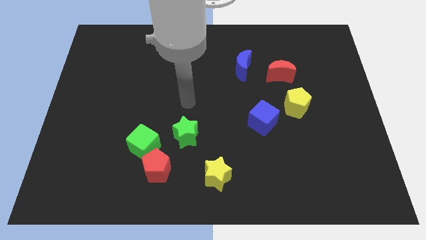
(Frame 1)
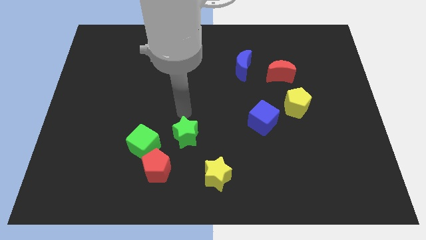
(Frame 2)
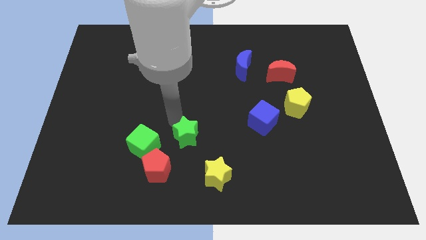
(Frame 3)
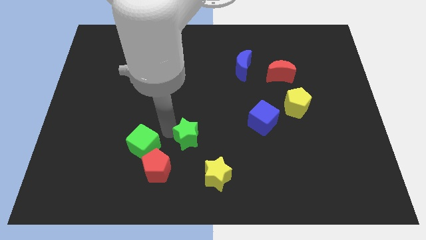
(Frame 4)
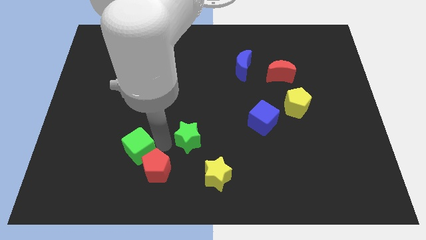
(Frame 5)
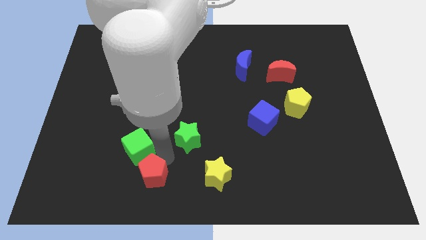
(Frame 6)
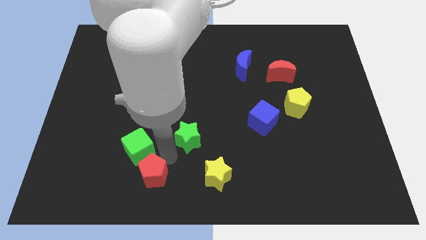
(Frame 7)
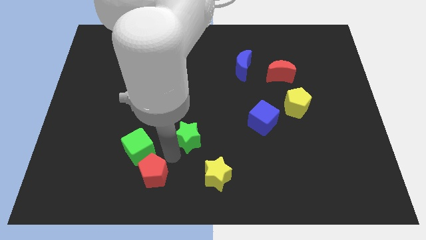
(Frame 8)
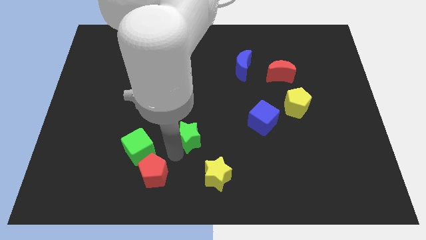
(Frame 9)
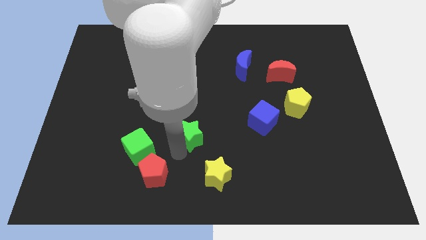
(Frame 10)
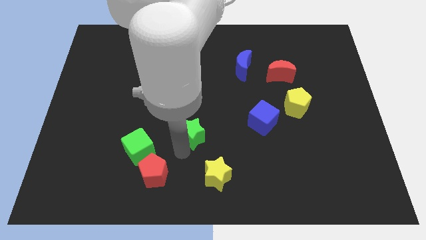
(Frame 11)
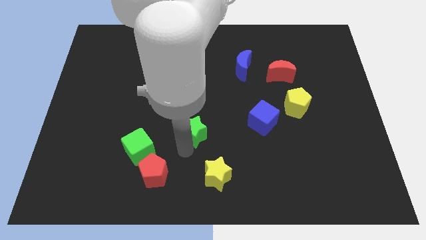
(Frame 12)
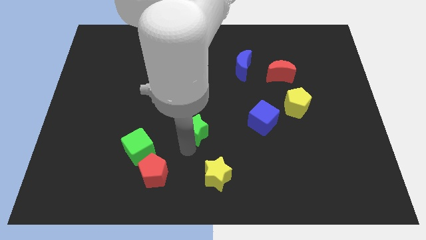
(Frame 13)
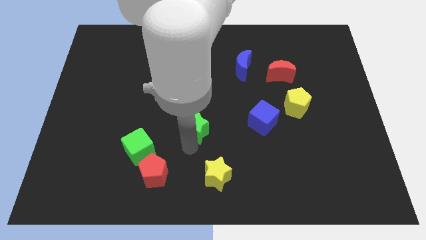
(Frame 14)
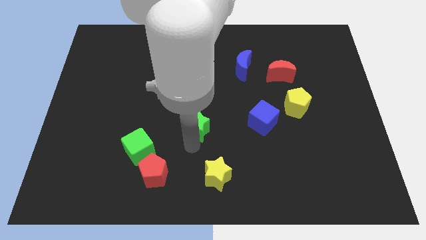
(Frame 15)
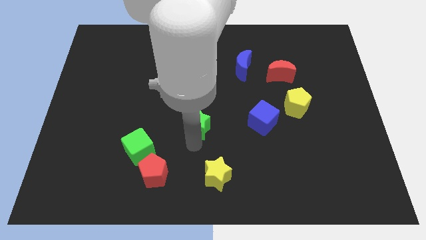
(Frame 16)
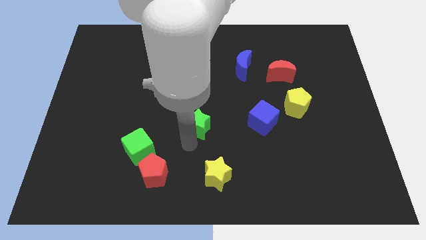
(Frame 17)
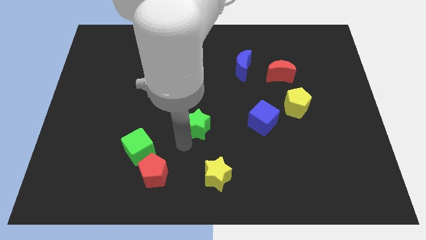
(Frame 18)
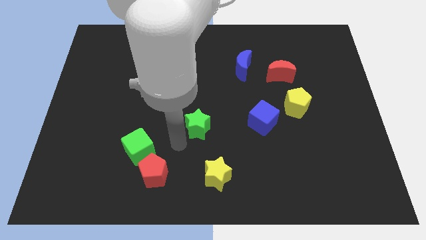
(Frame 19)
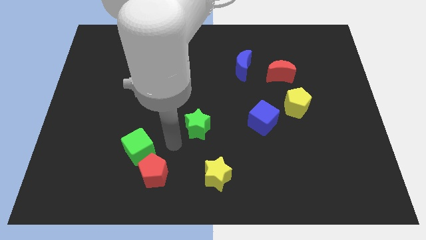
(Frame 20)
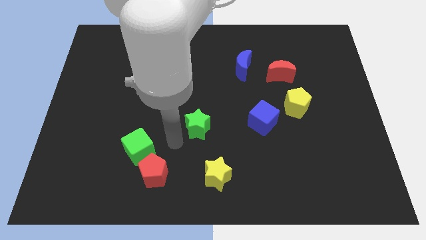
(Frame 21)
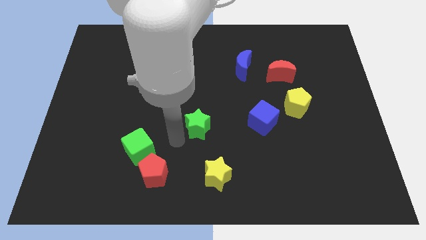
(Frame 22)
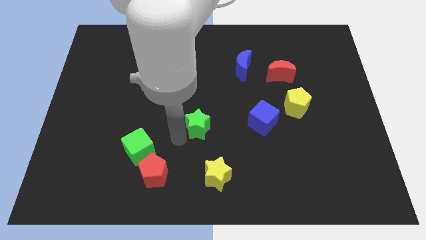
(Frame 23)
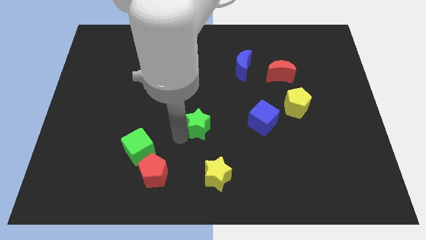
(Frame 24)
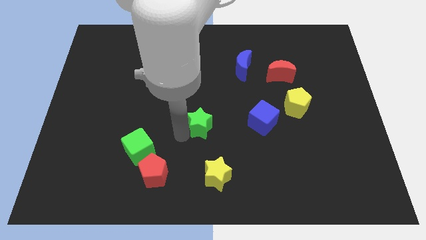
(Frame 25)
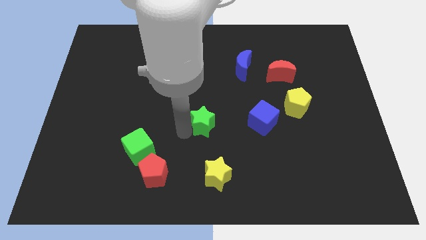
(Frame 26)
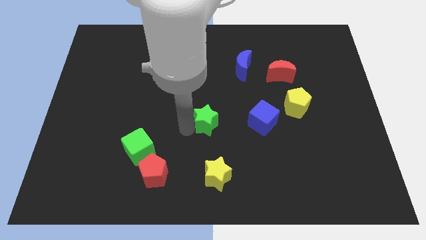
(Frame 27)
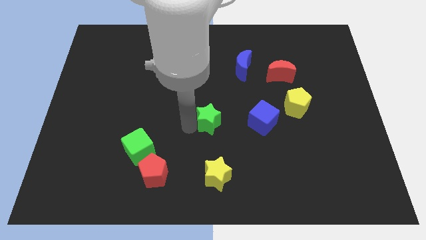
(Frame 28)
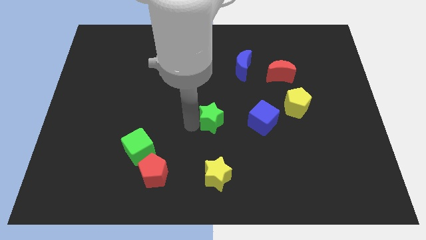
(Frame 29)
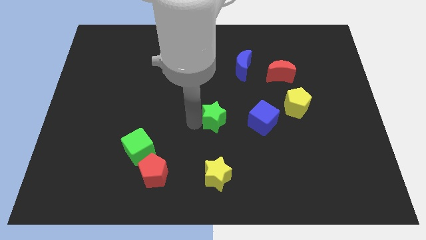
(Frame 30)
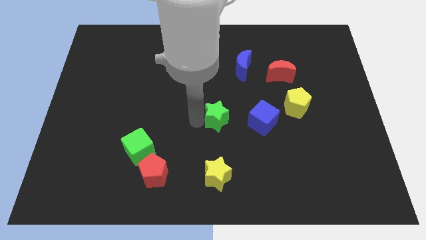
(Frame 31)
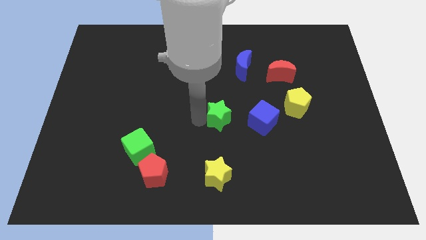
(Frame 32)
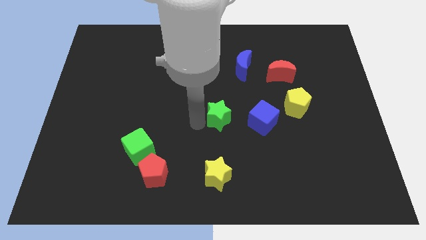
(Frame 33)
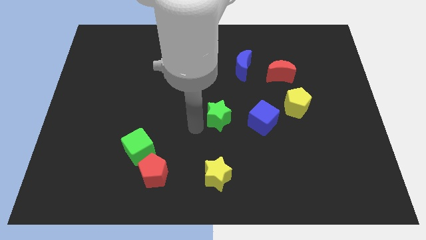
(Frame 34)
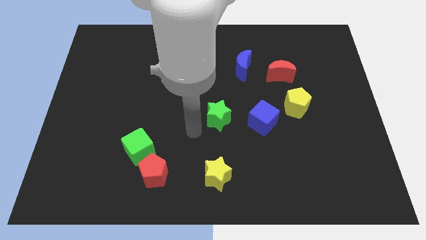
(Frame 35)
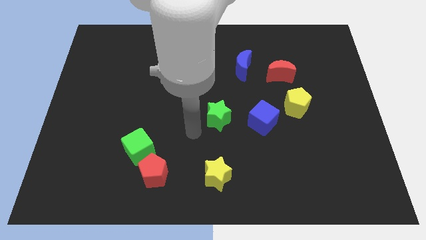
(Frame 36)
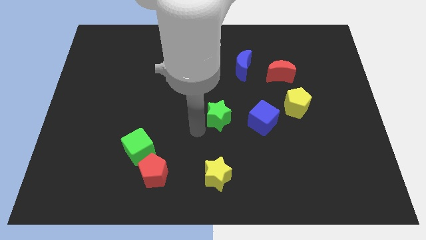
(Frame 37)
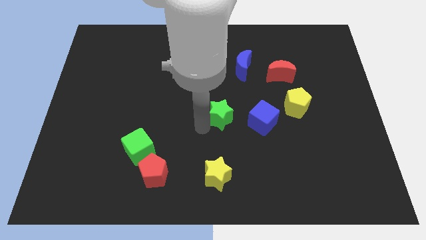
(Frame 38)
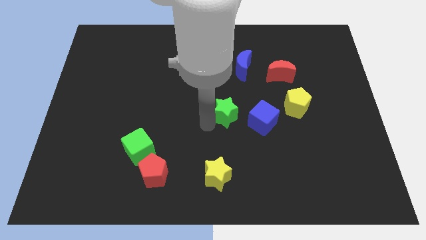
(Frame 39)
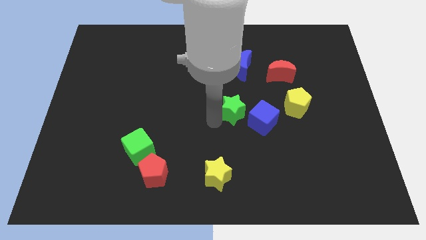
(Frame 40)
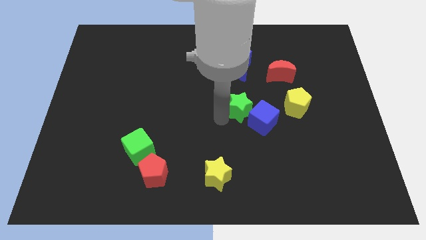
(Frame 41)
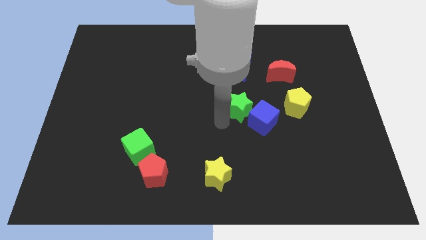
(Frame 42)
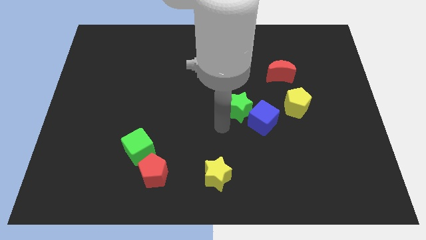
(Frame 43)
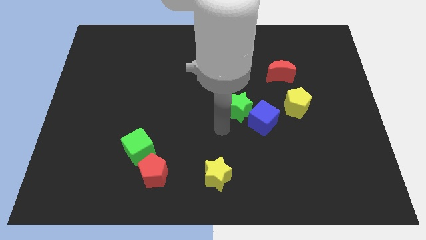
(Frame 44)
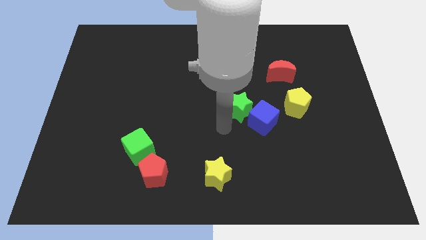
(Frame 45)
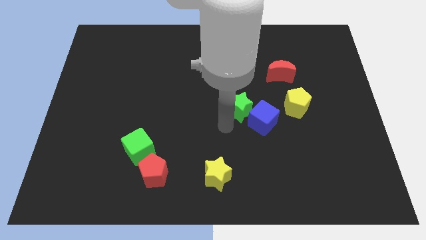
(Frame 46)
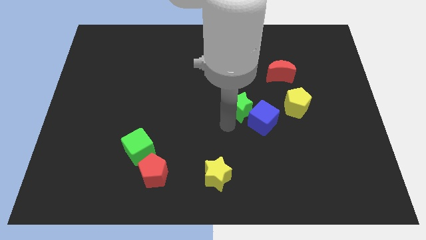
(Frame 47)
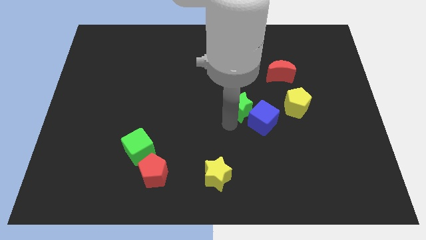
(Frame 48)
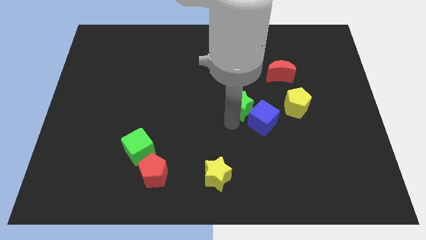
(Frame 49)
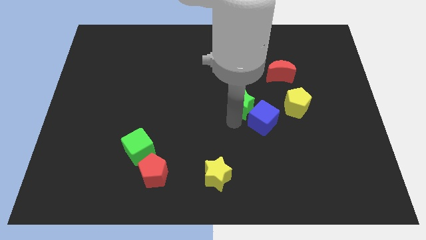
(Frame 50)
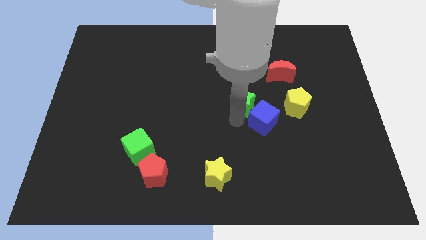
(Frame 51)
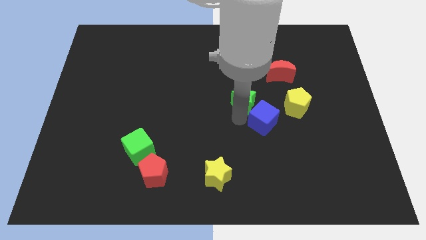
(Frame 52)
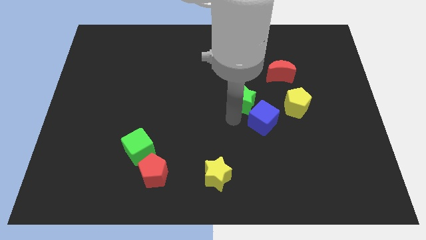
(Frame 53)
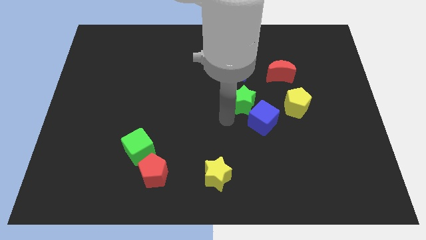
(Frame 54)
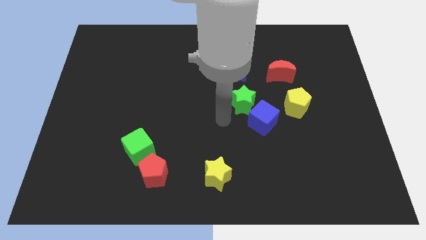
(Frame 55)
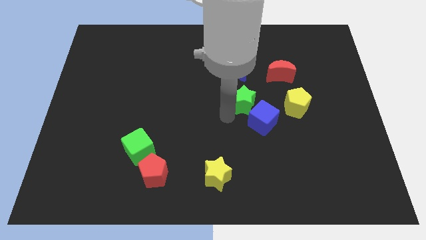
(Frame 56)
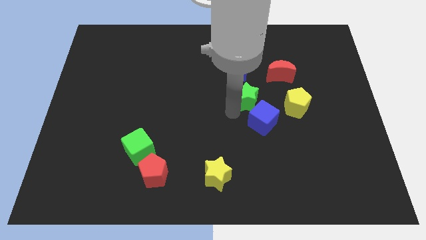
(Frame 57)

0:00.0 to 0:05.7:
push the green star to the bottom left side of the red moon

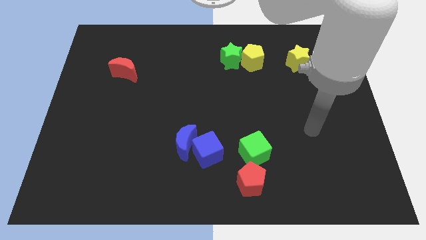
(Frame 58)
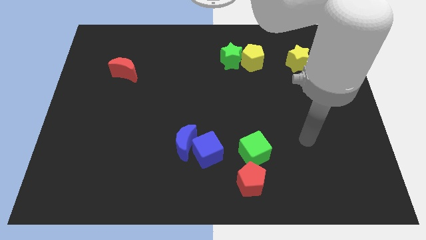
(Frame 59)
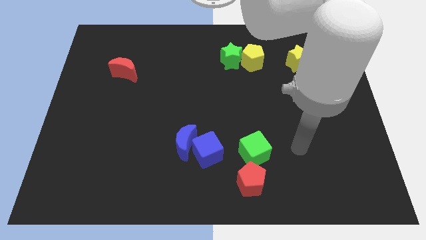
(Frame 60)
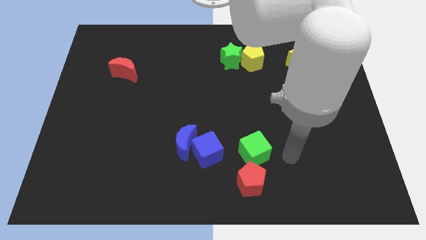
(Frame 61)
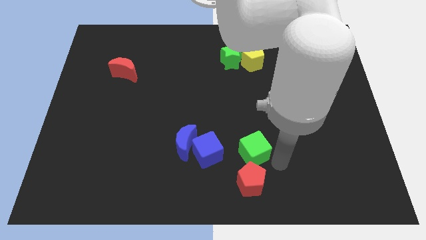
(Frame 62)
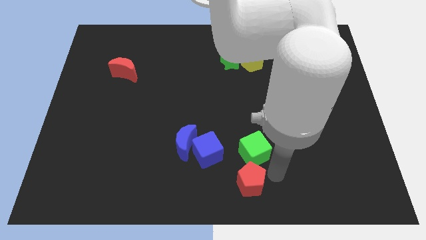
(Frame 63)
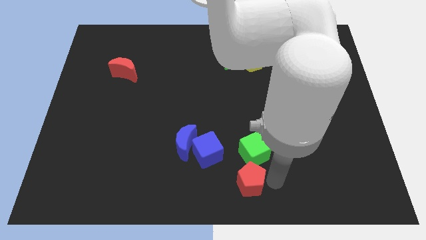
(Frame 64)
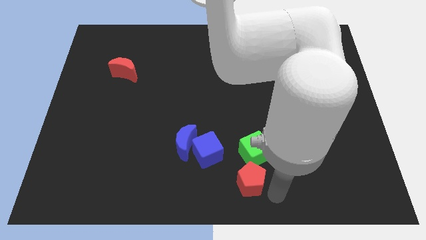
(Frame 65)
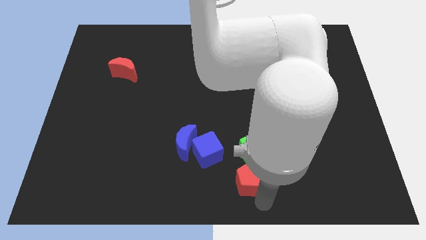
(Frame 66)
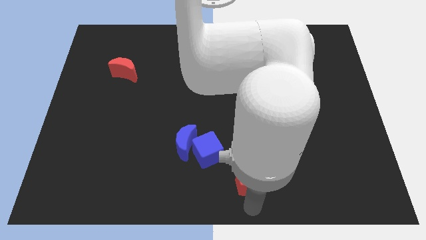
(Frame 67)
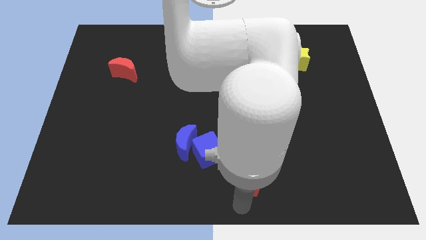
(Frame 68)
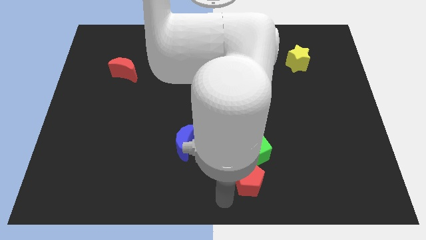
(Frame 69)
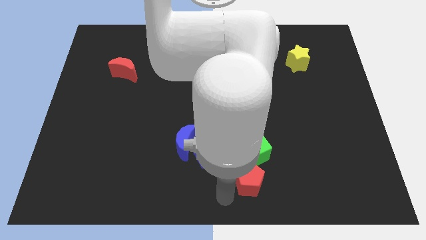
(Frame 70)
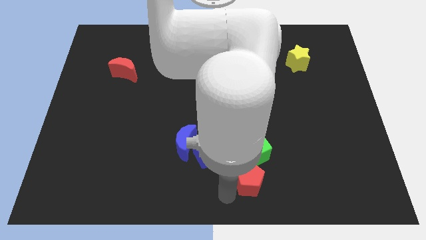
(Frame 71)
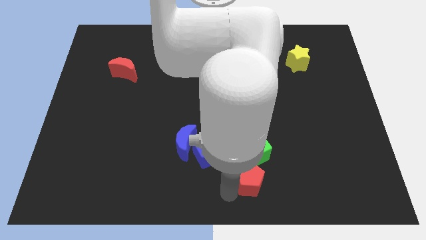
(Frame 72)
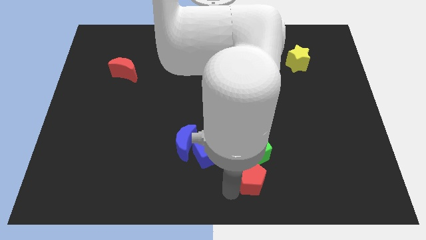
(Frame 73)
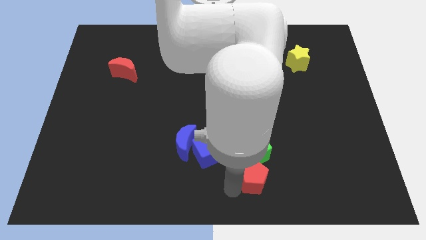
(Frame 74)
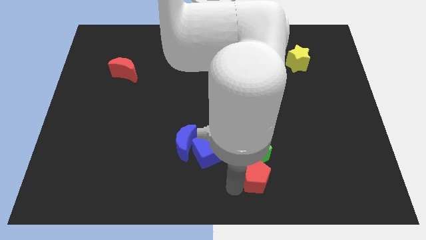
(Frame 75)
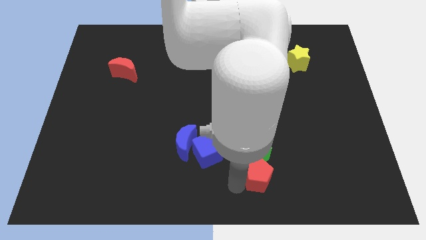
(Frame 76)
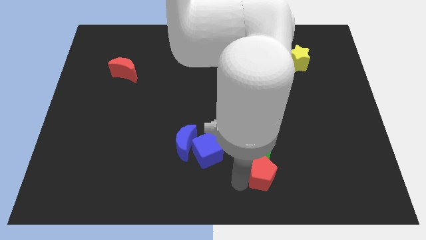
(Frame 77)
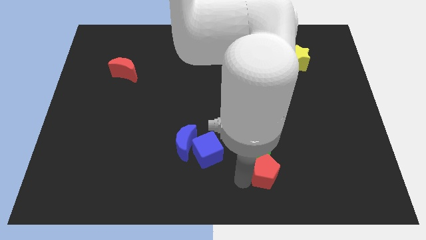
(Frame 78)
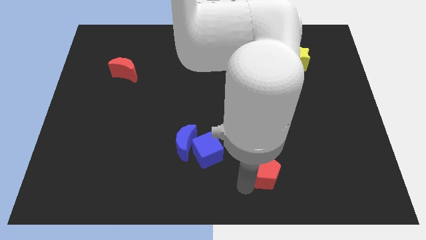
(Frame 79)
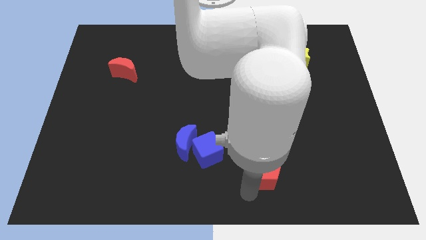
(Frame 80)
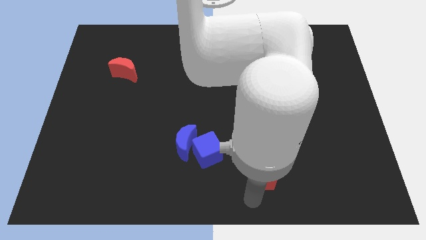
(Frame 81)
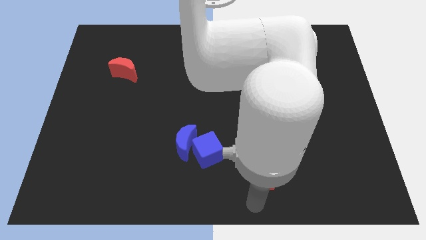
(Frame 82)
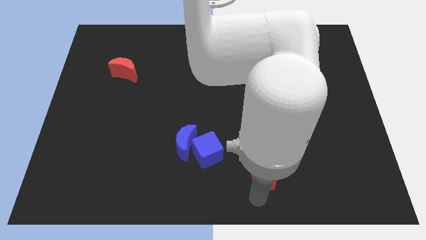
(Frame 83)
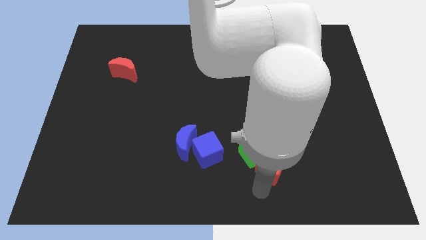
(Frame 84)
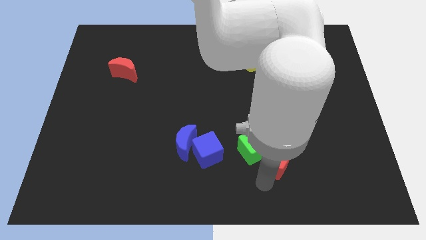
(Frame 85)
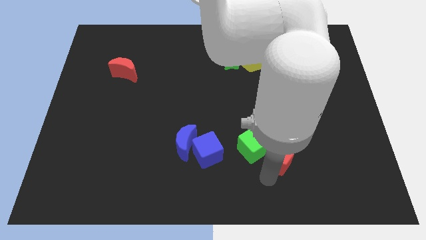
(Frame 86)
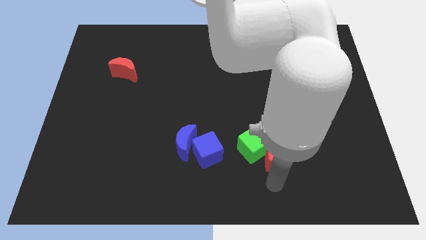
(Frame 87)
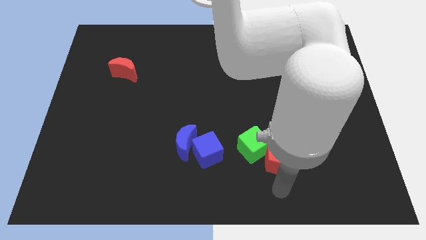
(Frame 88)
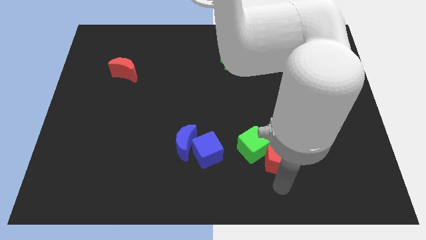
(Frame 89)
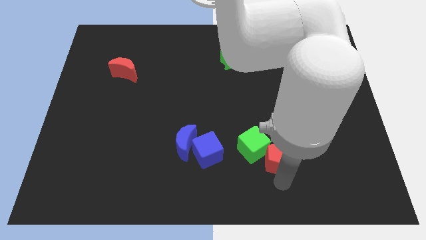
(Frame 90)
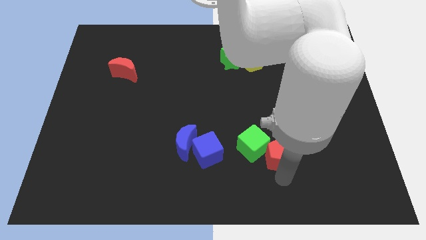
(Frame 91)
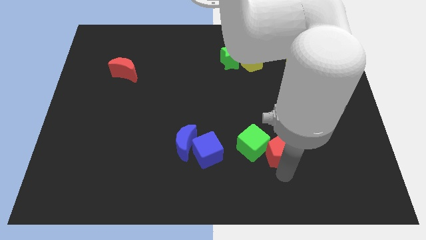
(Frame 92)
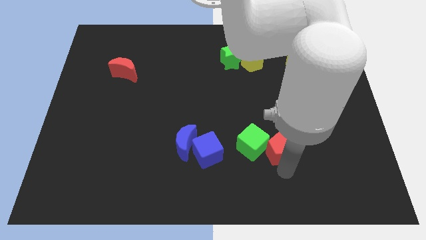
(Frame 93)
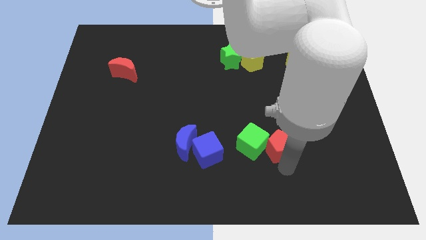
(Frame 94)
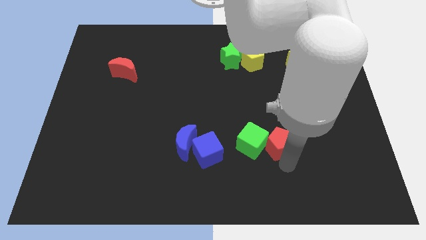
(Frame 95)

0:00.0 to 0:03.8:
move the red pentagon to the top right side of the green cube
